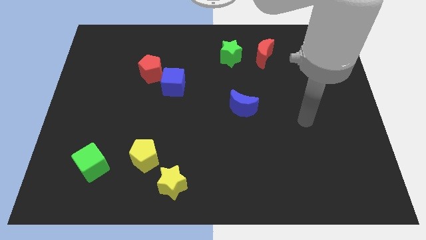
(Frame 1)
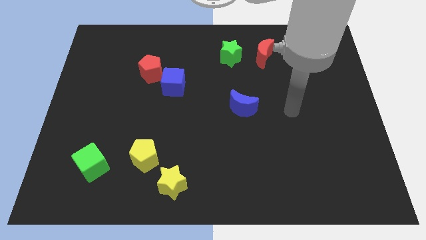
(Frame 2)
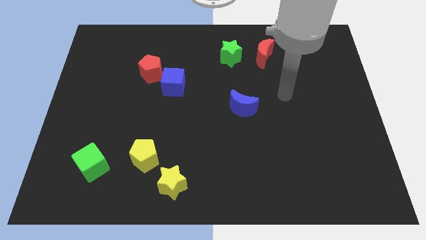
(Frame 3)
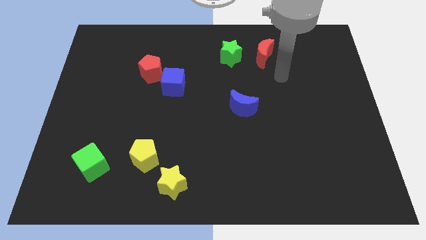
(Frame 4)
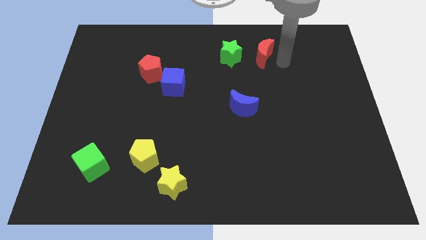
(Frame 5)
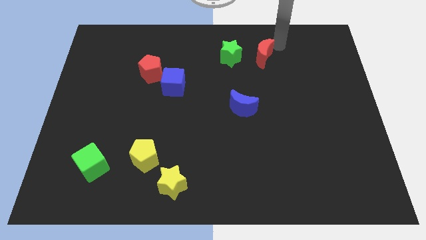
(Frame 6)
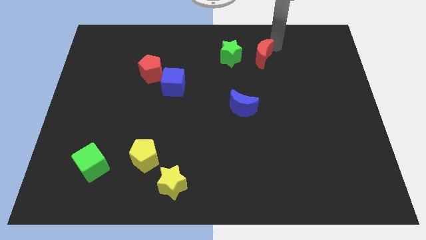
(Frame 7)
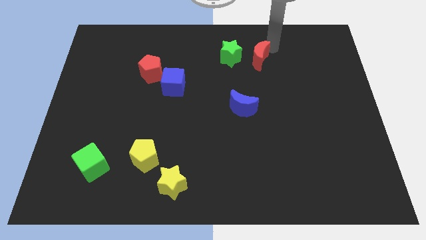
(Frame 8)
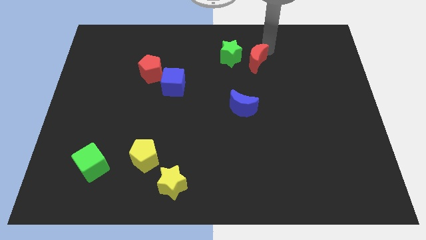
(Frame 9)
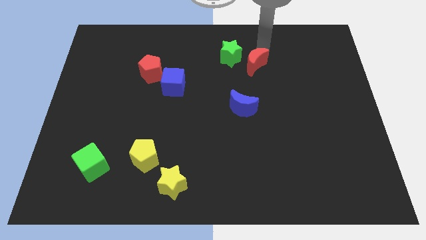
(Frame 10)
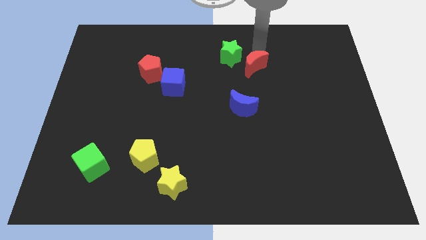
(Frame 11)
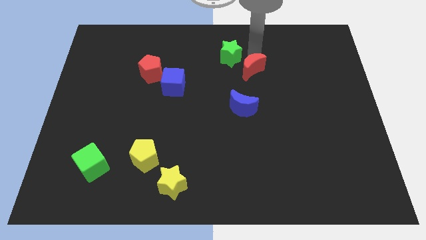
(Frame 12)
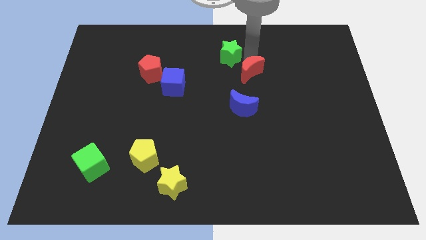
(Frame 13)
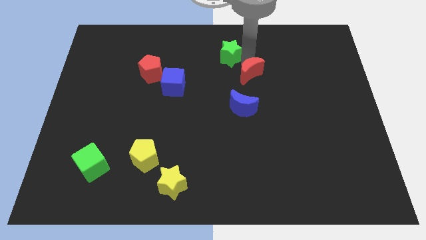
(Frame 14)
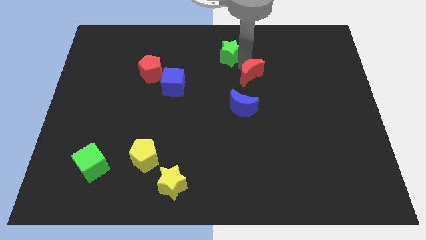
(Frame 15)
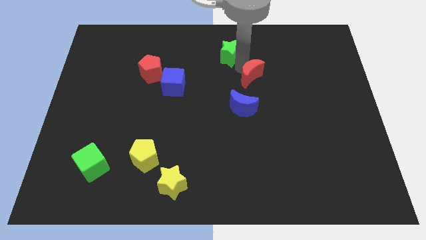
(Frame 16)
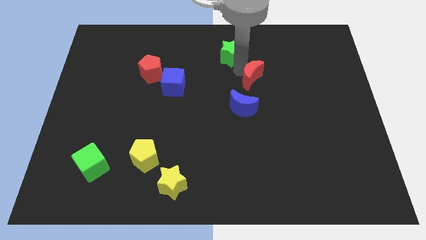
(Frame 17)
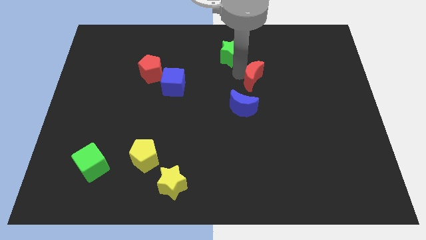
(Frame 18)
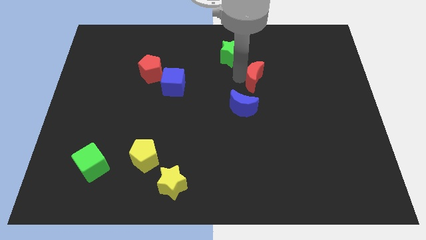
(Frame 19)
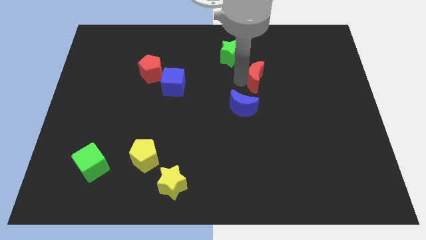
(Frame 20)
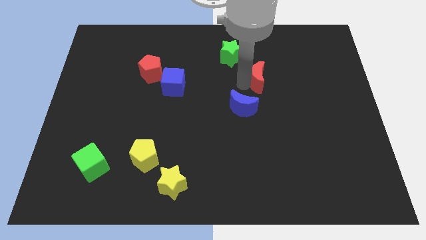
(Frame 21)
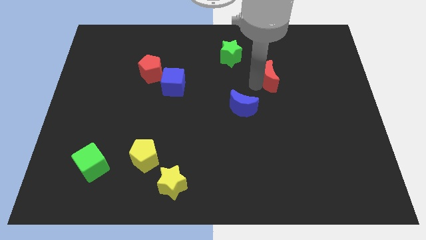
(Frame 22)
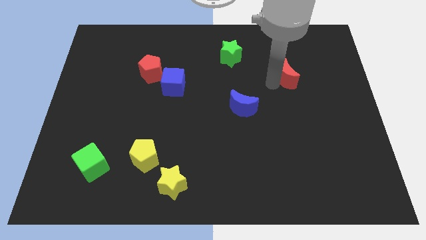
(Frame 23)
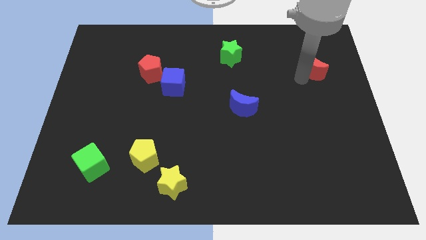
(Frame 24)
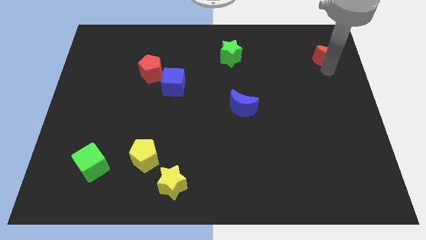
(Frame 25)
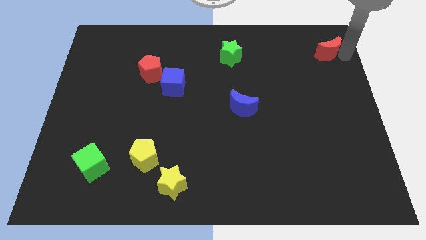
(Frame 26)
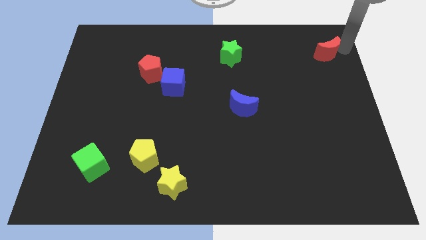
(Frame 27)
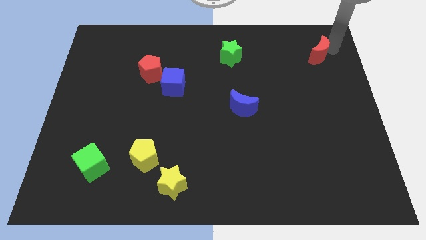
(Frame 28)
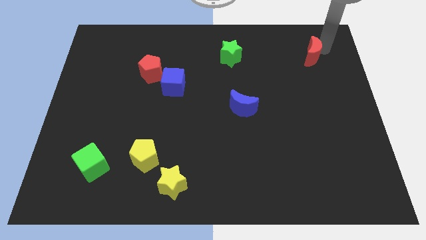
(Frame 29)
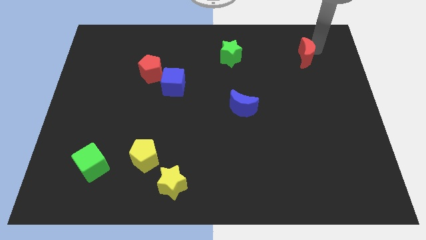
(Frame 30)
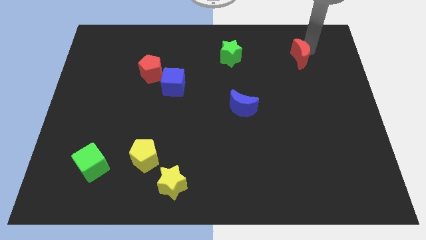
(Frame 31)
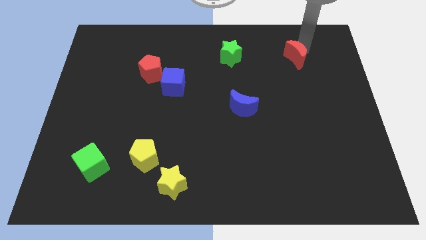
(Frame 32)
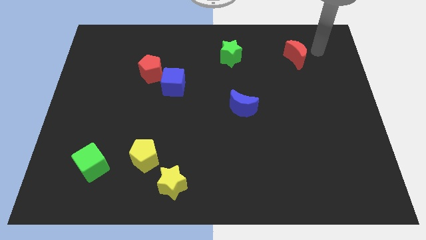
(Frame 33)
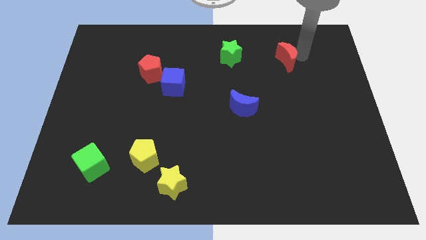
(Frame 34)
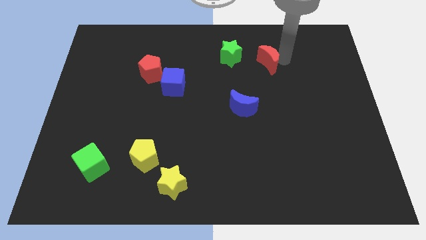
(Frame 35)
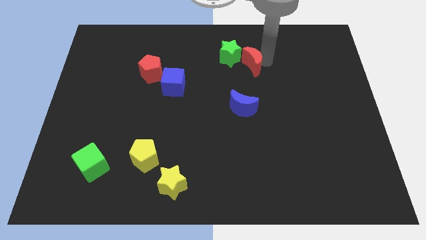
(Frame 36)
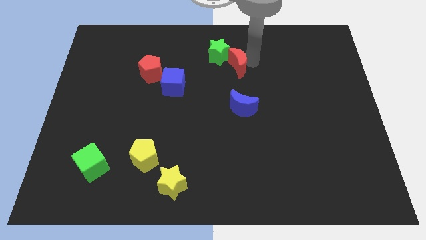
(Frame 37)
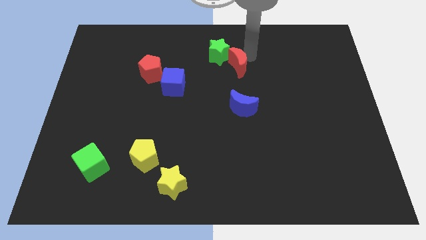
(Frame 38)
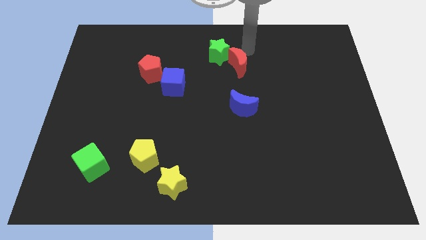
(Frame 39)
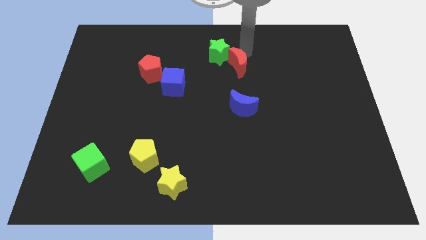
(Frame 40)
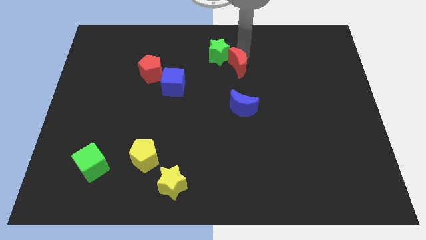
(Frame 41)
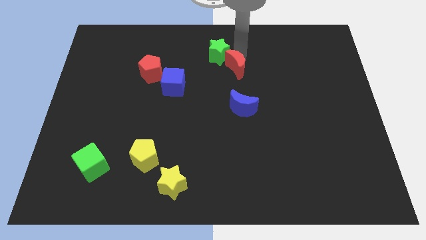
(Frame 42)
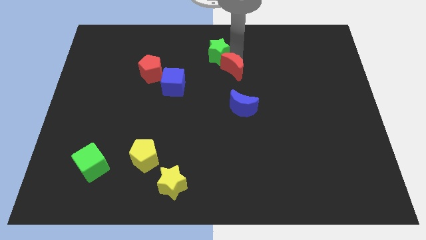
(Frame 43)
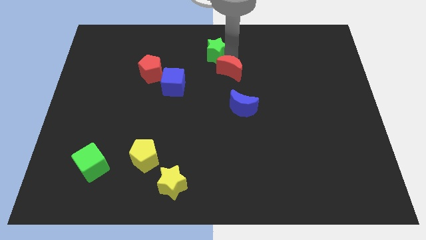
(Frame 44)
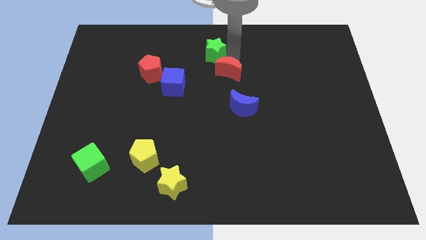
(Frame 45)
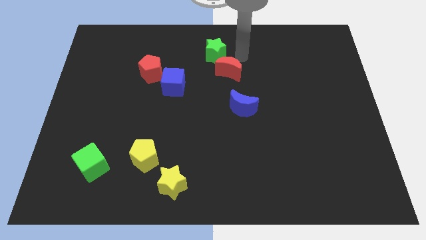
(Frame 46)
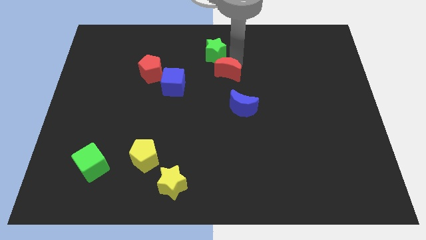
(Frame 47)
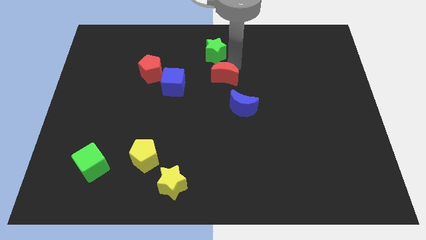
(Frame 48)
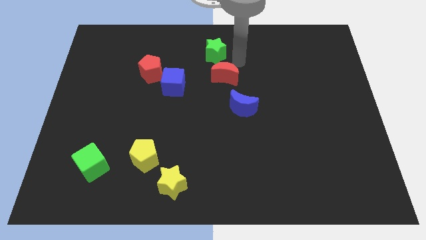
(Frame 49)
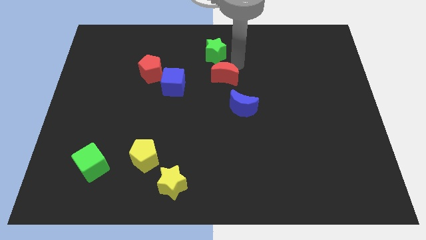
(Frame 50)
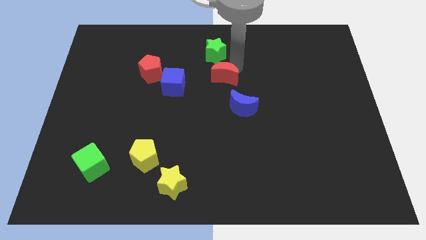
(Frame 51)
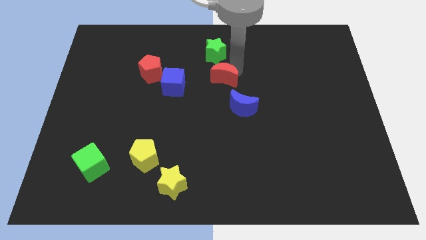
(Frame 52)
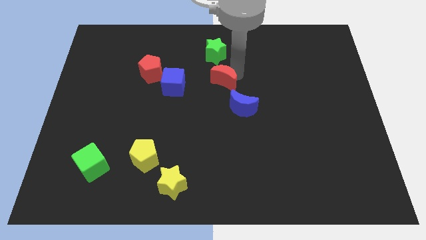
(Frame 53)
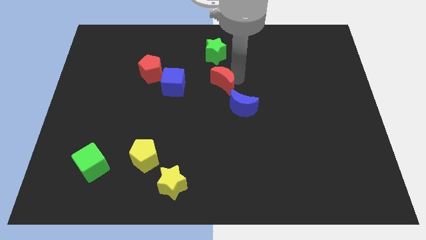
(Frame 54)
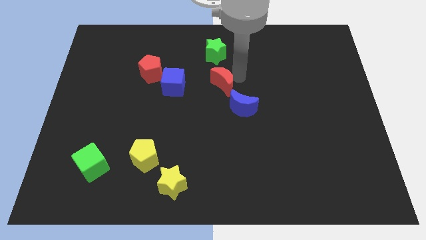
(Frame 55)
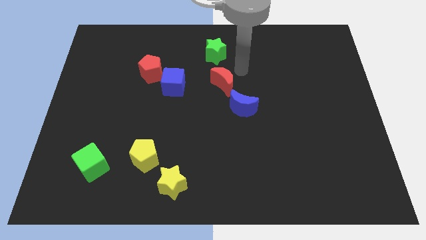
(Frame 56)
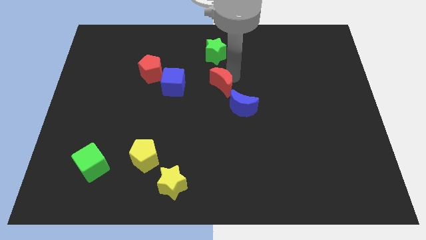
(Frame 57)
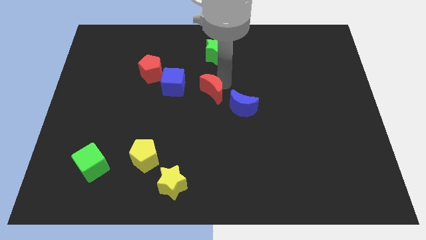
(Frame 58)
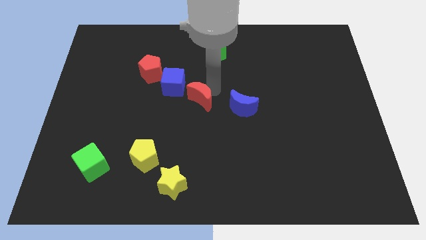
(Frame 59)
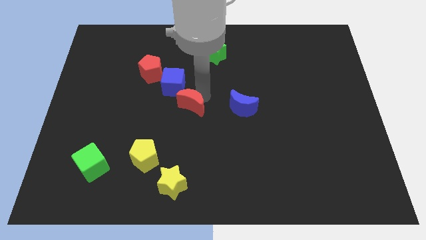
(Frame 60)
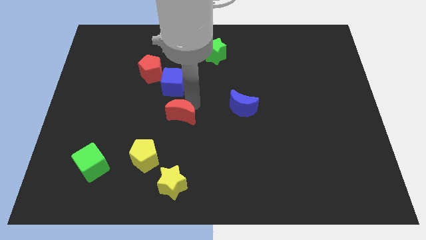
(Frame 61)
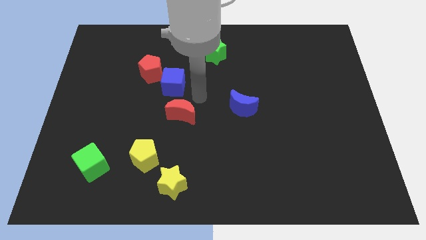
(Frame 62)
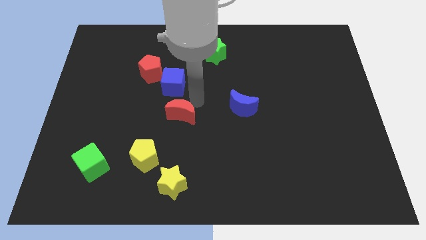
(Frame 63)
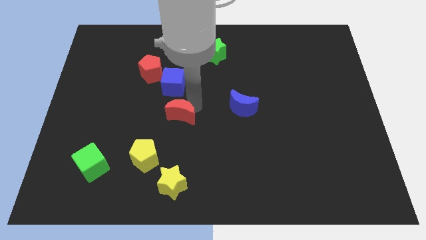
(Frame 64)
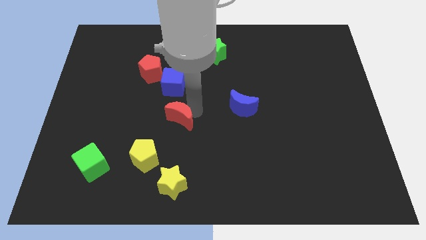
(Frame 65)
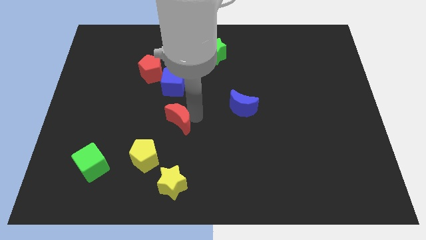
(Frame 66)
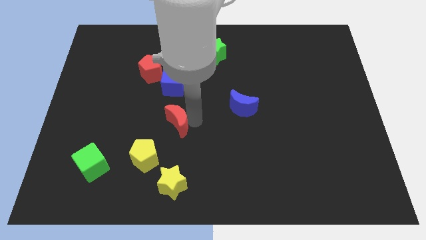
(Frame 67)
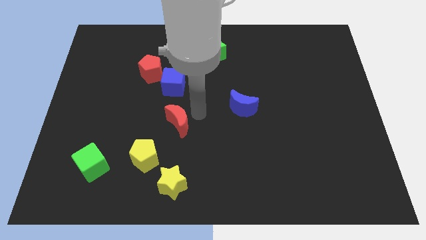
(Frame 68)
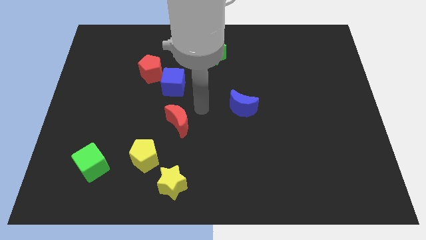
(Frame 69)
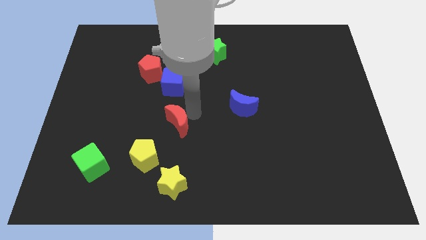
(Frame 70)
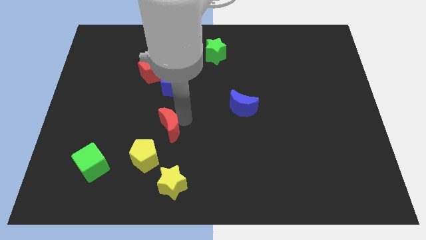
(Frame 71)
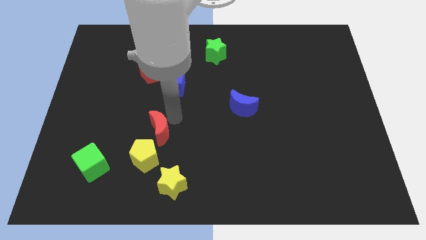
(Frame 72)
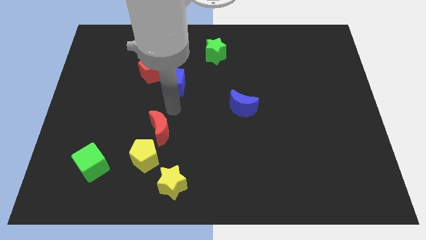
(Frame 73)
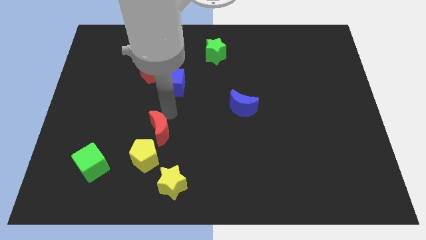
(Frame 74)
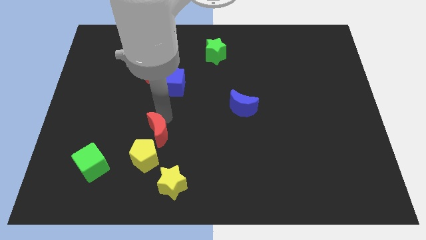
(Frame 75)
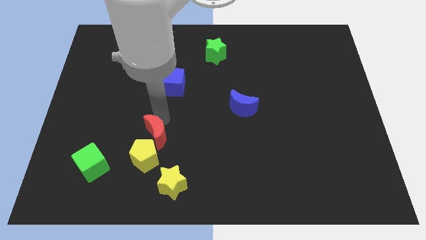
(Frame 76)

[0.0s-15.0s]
push the red moon to the yellow pentagon
